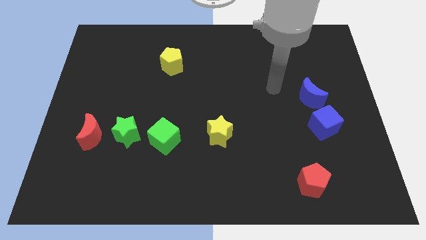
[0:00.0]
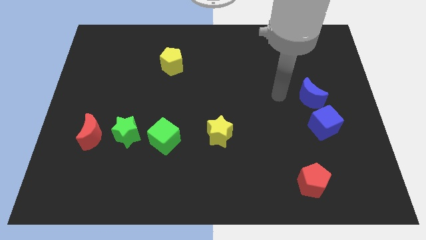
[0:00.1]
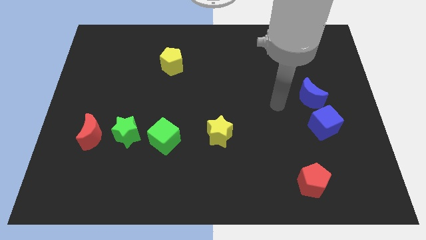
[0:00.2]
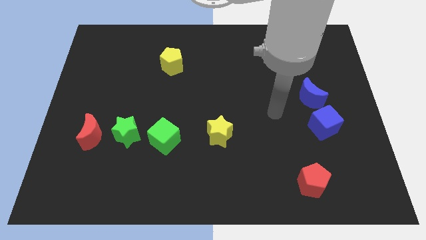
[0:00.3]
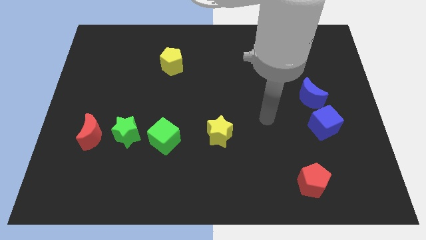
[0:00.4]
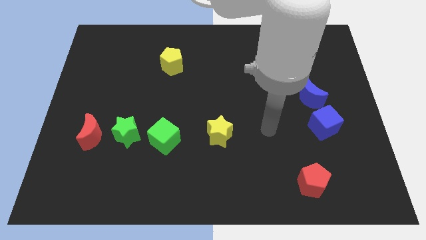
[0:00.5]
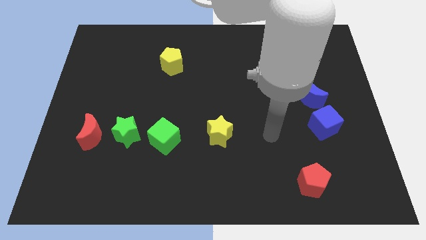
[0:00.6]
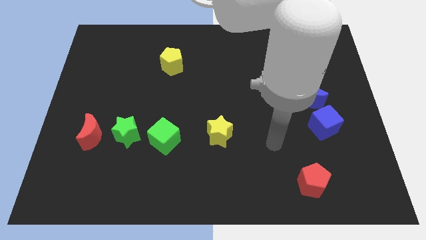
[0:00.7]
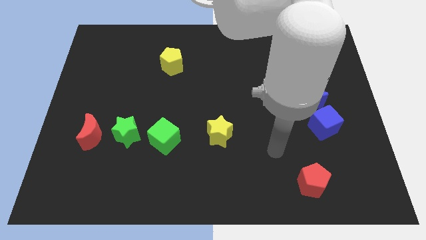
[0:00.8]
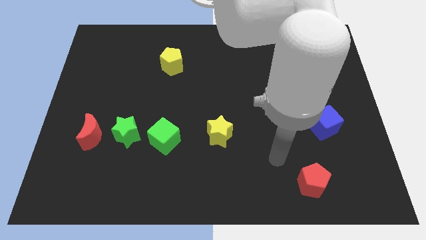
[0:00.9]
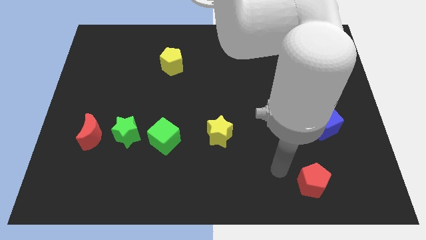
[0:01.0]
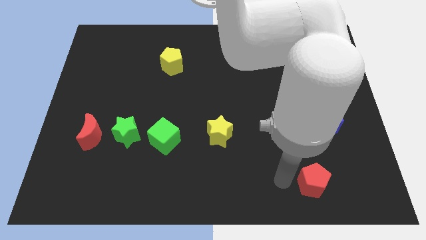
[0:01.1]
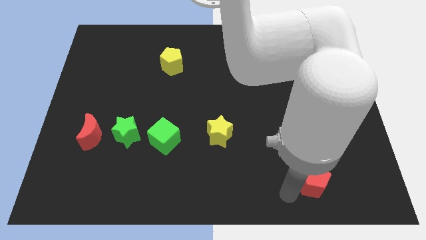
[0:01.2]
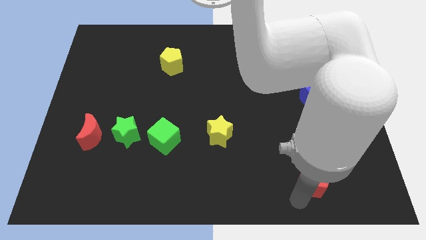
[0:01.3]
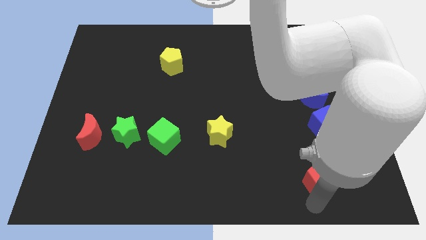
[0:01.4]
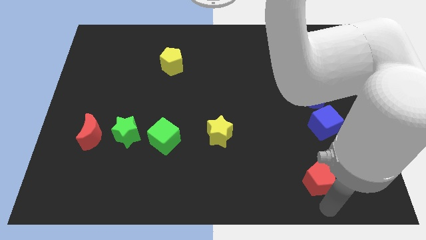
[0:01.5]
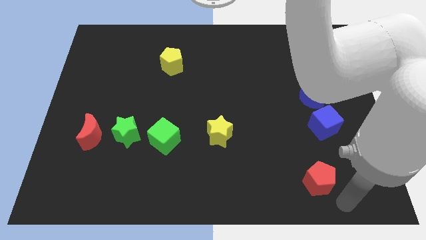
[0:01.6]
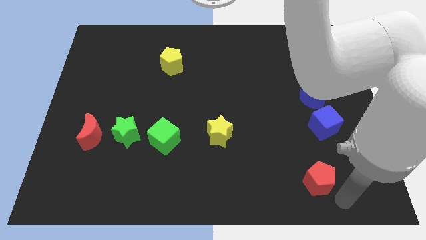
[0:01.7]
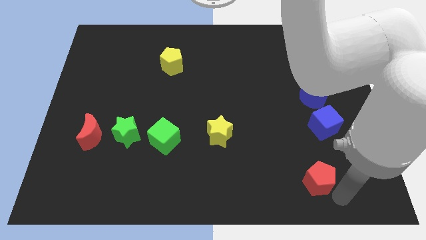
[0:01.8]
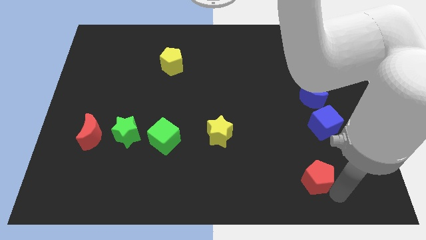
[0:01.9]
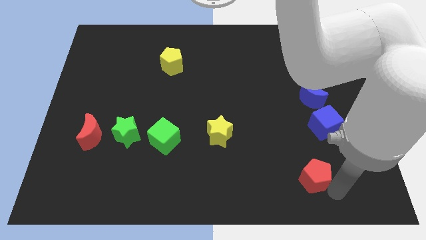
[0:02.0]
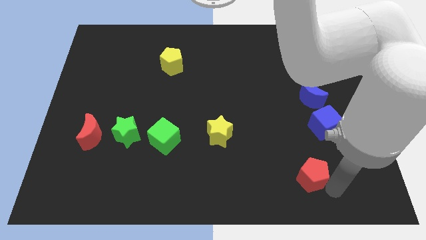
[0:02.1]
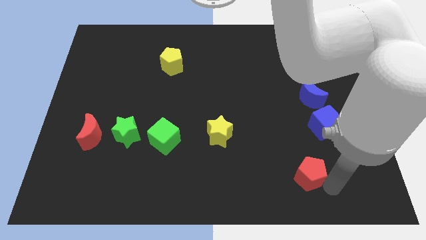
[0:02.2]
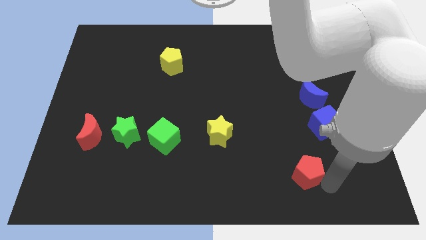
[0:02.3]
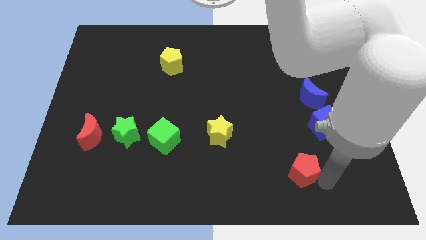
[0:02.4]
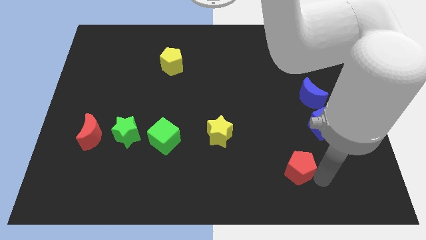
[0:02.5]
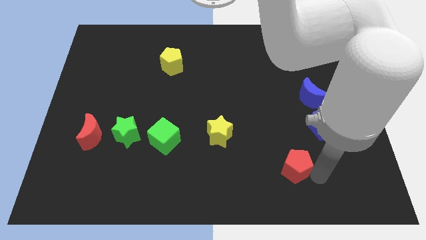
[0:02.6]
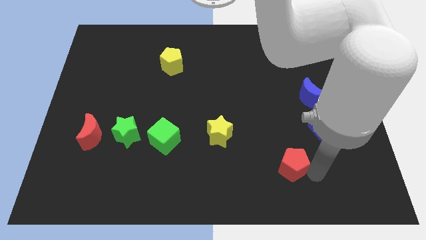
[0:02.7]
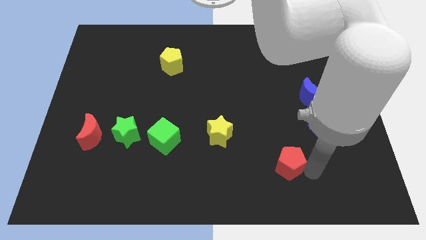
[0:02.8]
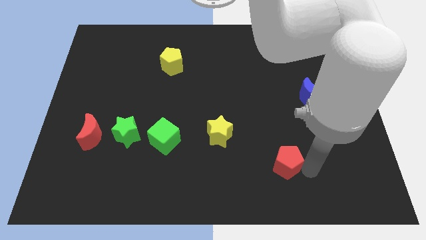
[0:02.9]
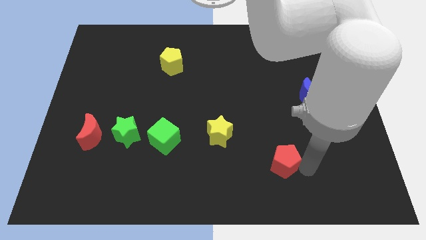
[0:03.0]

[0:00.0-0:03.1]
slightly slide the red pentagon upwards and left diagonally

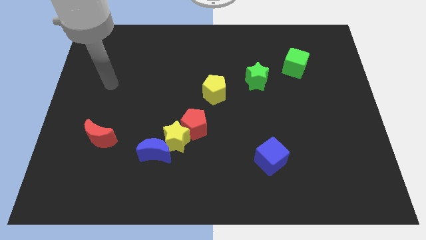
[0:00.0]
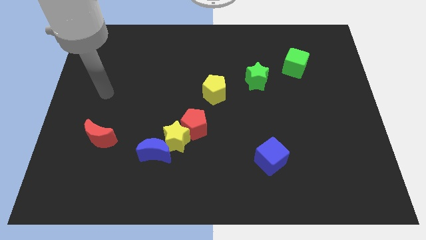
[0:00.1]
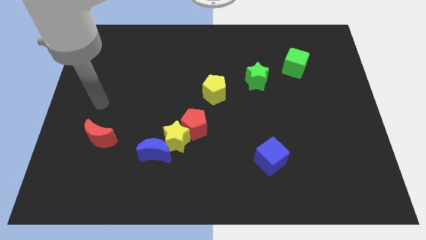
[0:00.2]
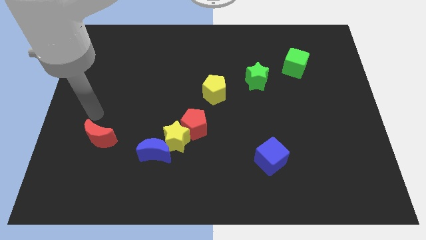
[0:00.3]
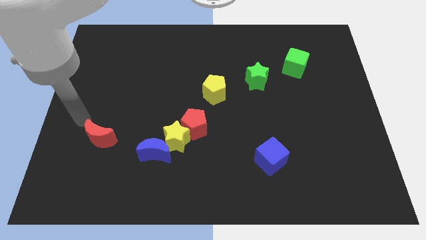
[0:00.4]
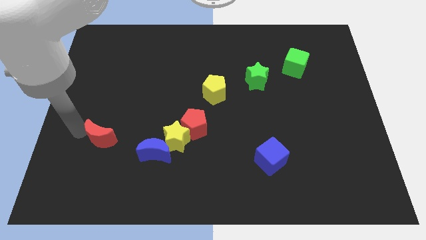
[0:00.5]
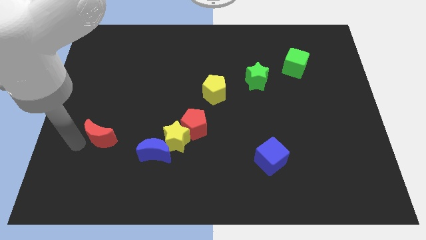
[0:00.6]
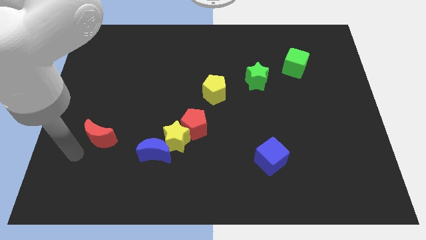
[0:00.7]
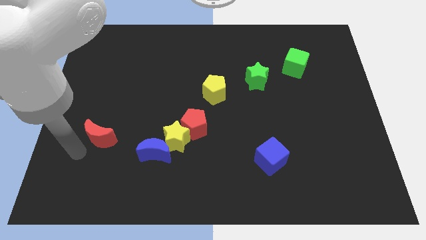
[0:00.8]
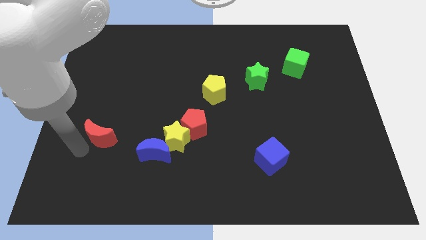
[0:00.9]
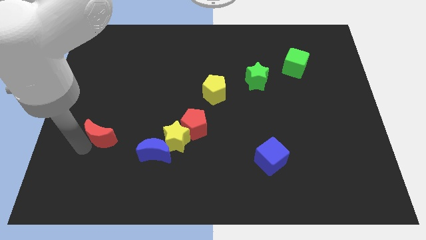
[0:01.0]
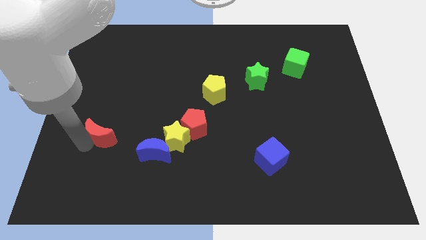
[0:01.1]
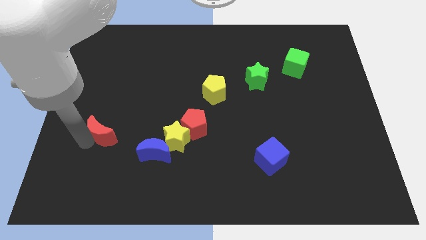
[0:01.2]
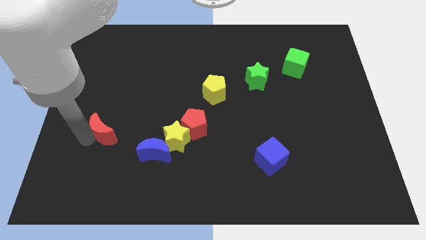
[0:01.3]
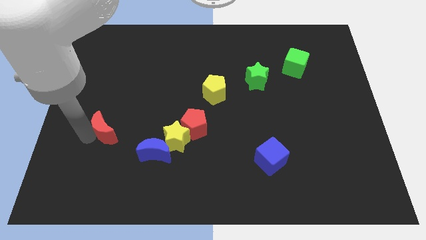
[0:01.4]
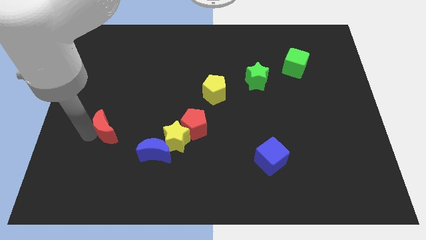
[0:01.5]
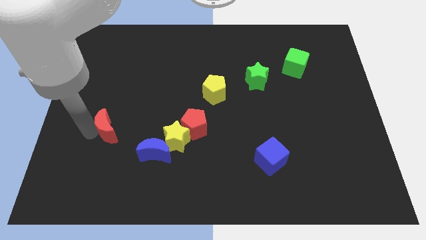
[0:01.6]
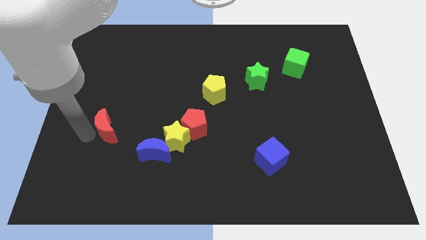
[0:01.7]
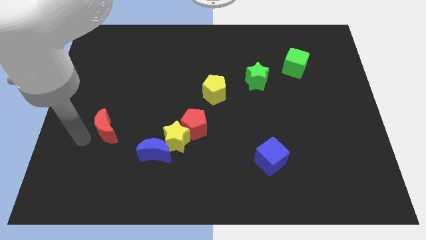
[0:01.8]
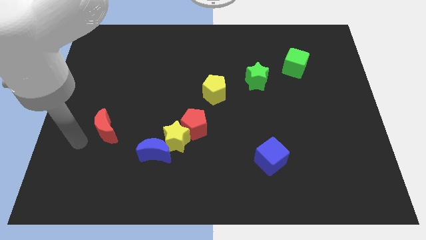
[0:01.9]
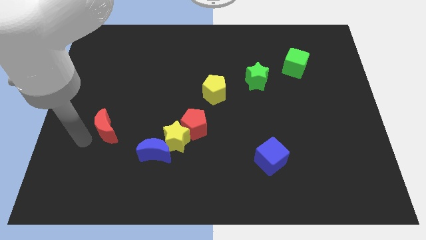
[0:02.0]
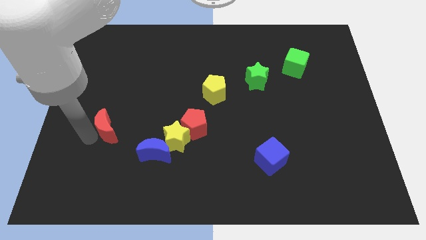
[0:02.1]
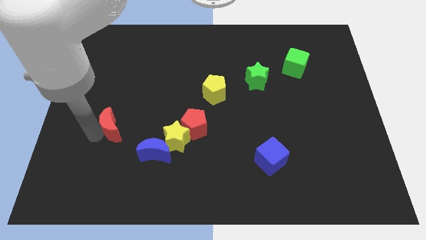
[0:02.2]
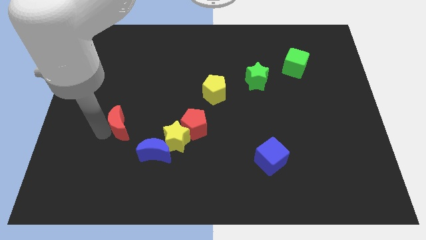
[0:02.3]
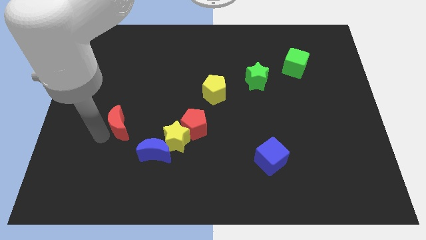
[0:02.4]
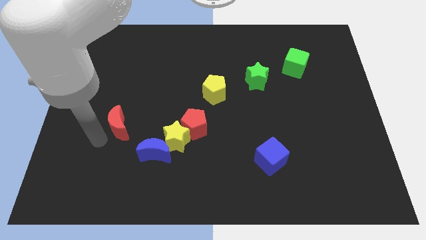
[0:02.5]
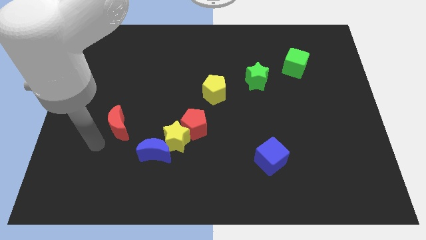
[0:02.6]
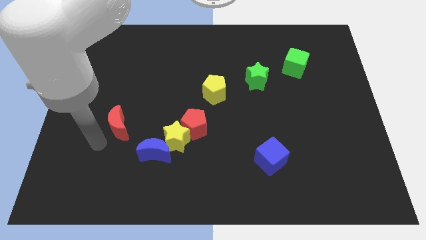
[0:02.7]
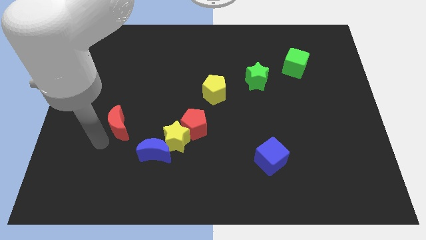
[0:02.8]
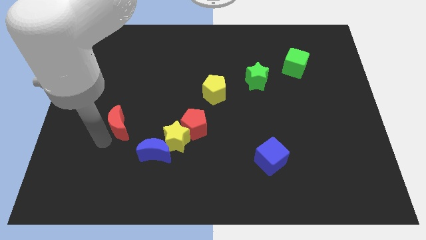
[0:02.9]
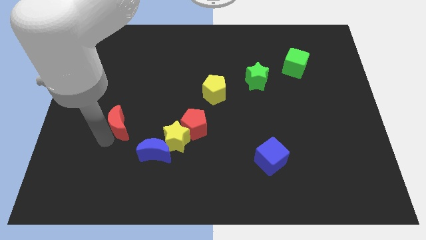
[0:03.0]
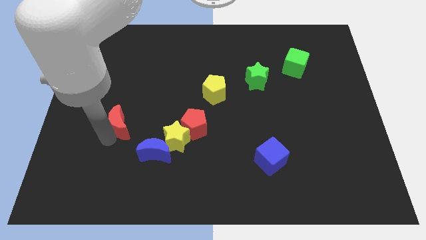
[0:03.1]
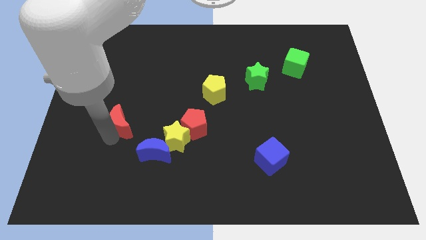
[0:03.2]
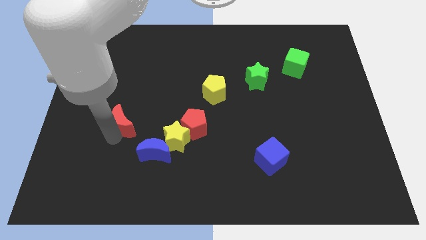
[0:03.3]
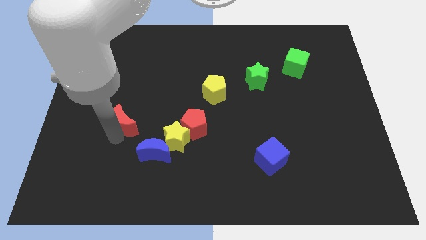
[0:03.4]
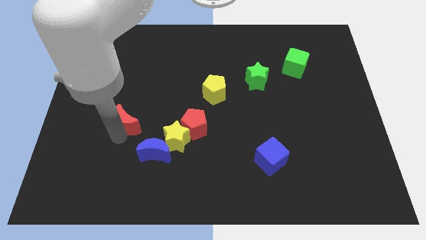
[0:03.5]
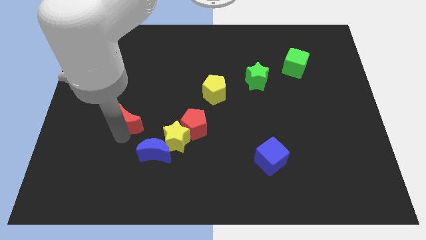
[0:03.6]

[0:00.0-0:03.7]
move the red moon slightly diagonally upwards and to the right

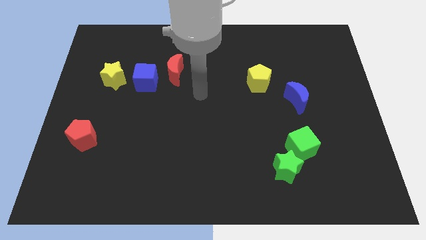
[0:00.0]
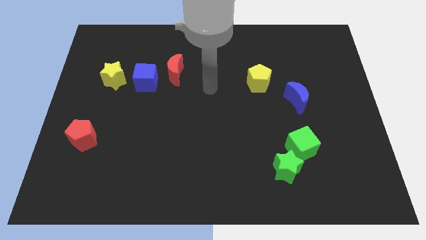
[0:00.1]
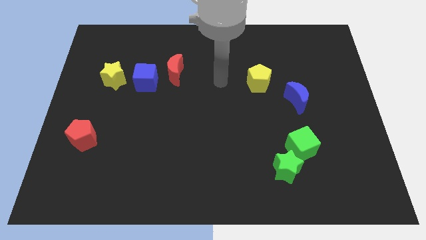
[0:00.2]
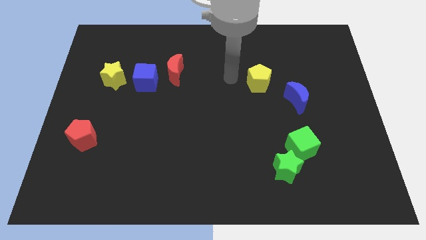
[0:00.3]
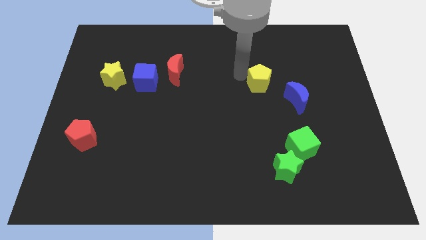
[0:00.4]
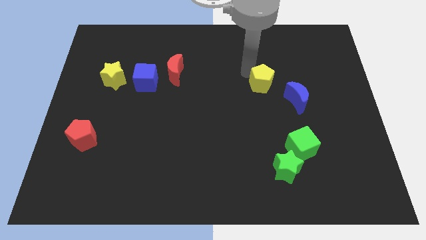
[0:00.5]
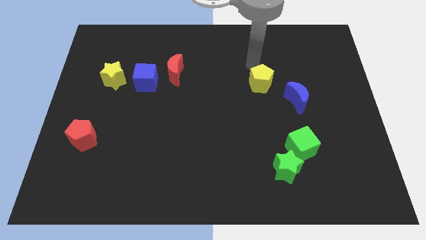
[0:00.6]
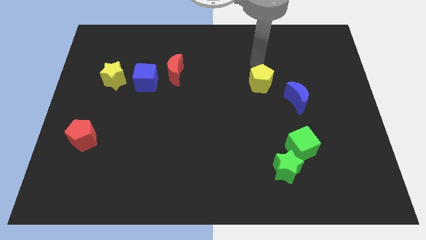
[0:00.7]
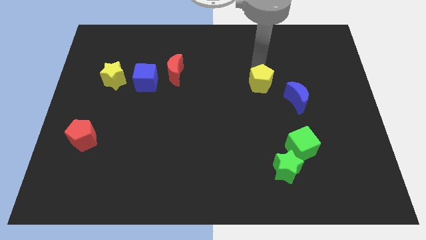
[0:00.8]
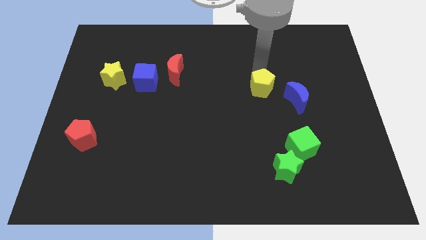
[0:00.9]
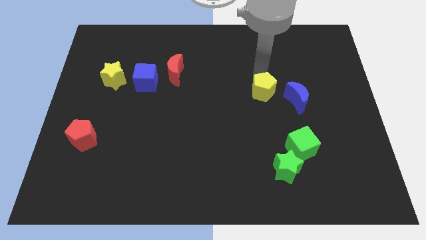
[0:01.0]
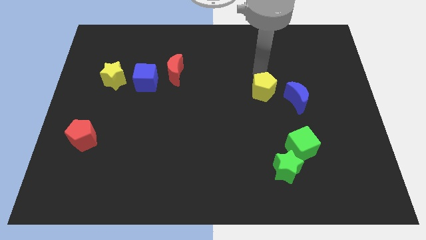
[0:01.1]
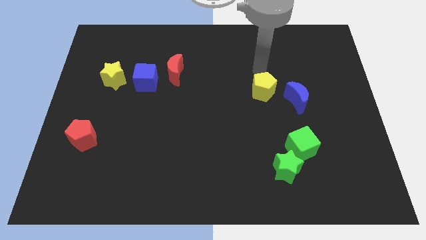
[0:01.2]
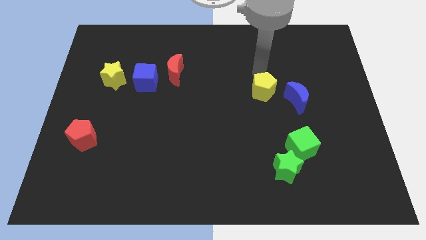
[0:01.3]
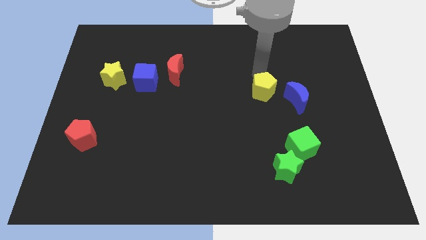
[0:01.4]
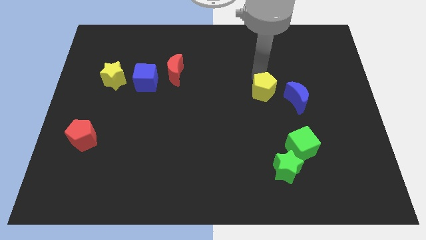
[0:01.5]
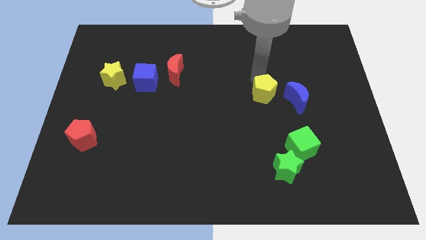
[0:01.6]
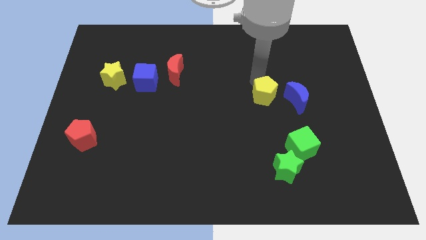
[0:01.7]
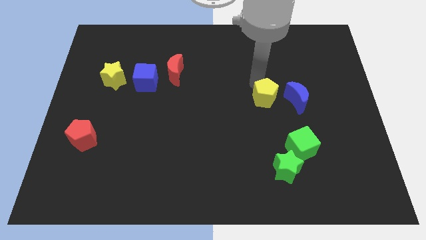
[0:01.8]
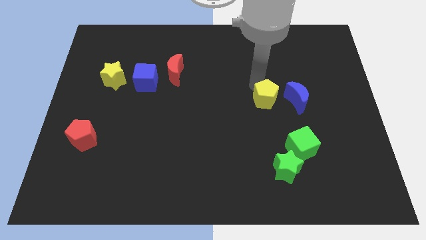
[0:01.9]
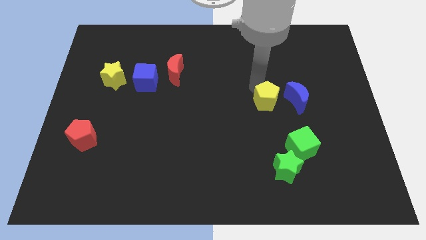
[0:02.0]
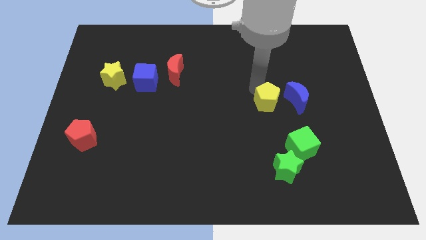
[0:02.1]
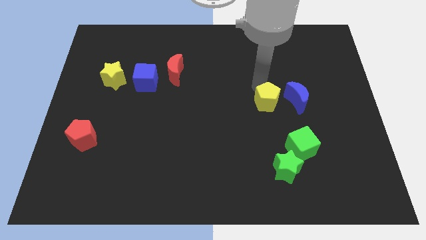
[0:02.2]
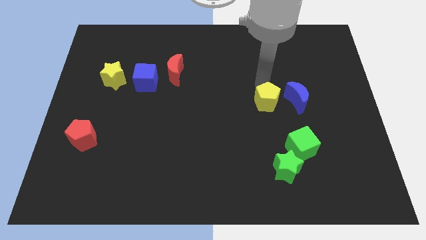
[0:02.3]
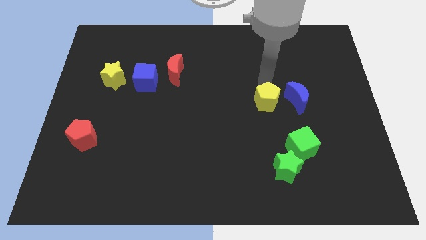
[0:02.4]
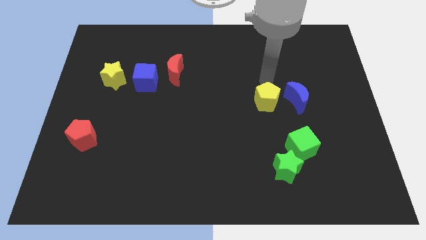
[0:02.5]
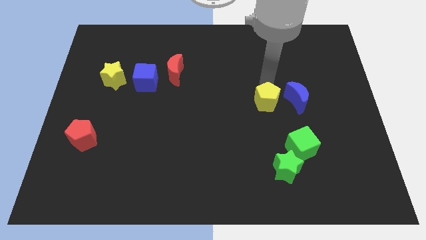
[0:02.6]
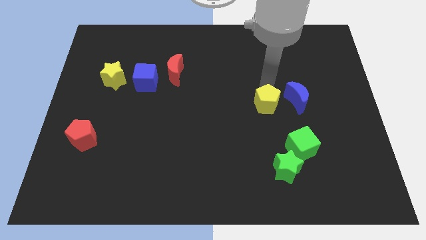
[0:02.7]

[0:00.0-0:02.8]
move the yellow pentagon slightly down
